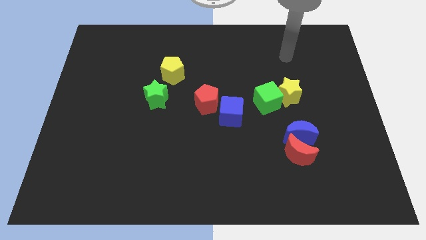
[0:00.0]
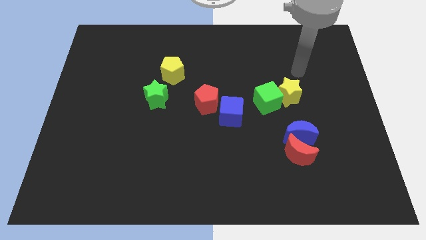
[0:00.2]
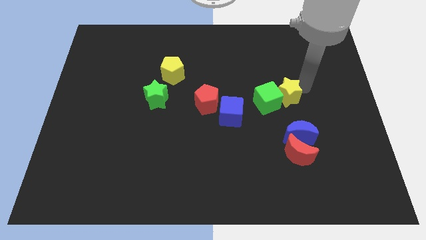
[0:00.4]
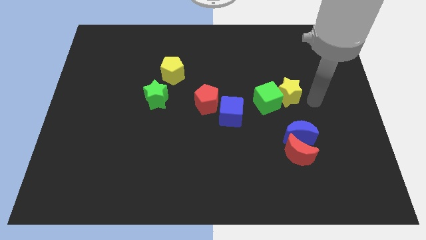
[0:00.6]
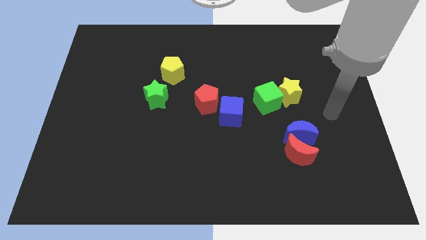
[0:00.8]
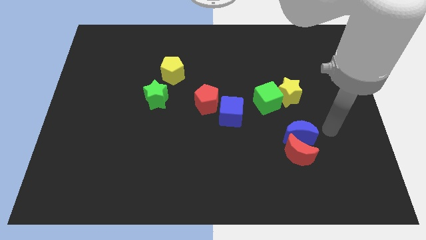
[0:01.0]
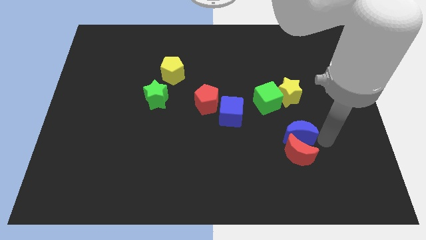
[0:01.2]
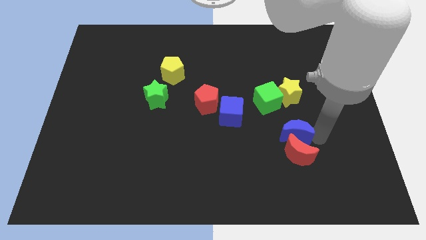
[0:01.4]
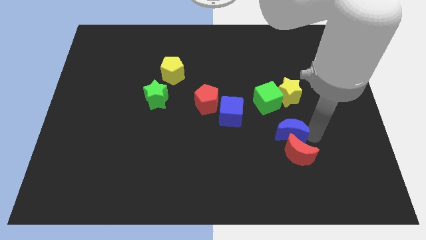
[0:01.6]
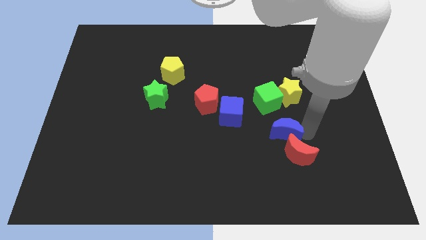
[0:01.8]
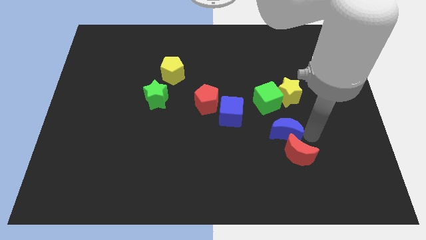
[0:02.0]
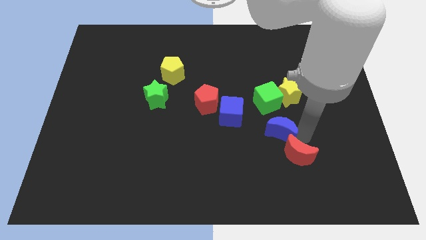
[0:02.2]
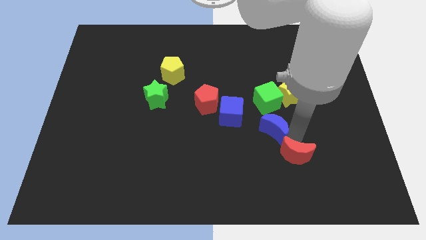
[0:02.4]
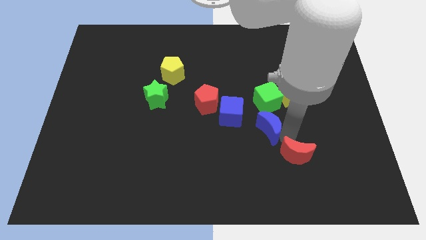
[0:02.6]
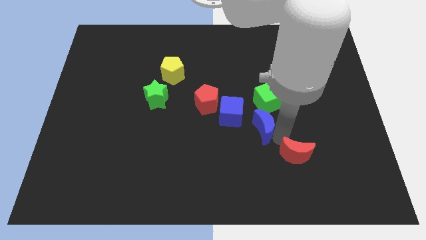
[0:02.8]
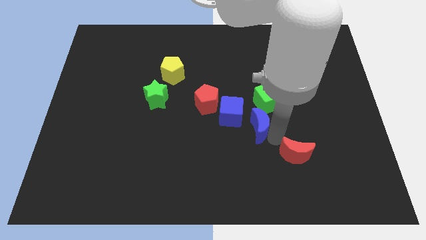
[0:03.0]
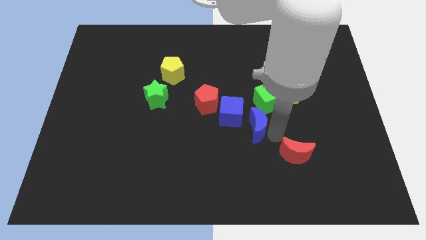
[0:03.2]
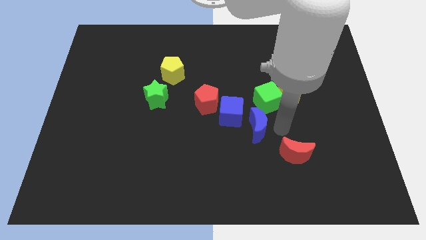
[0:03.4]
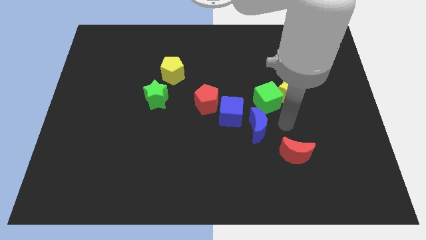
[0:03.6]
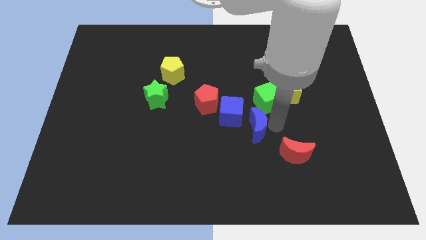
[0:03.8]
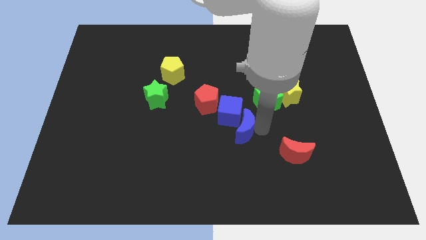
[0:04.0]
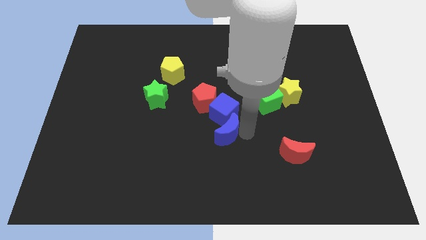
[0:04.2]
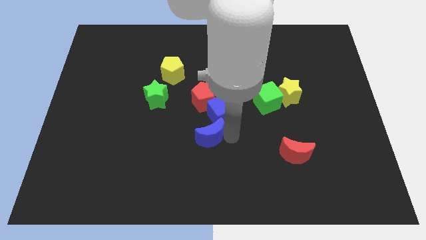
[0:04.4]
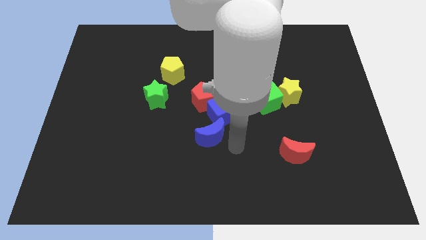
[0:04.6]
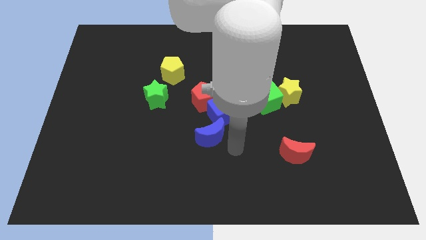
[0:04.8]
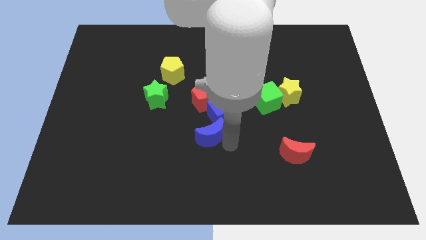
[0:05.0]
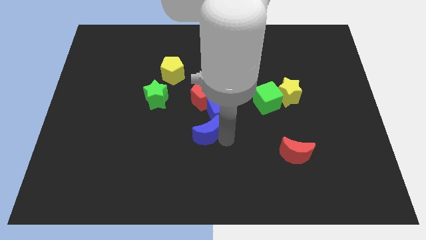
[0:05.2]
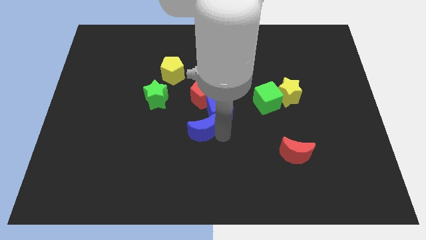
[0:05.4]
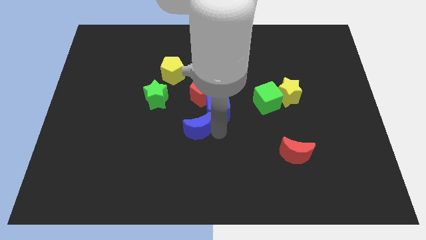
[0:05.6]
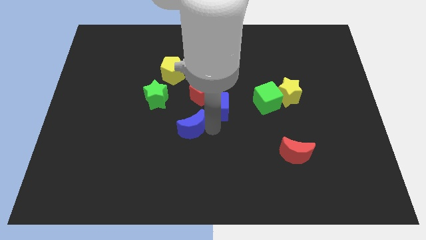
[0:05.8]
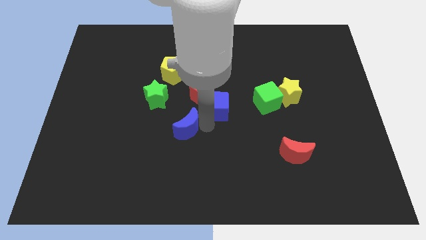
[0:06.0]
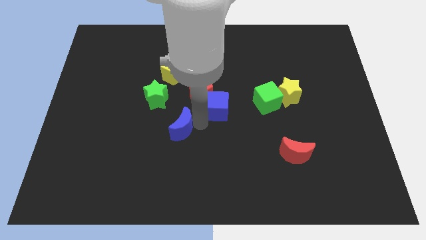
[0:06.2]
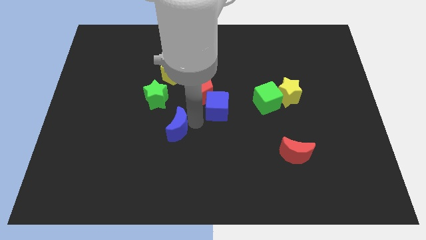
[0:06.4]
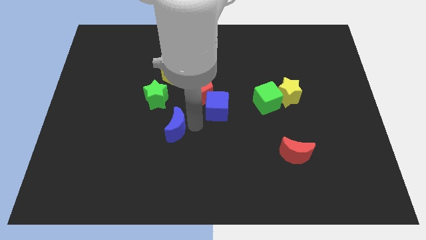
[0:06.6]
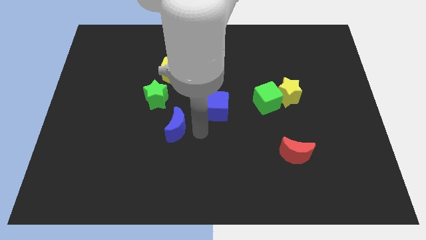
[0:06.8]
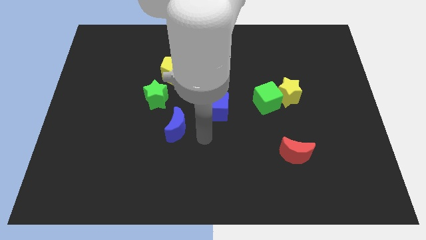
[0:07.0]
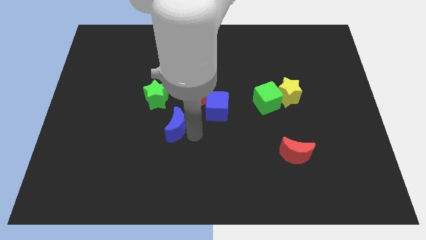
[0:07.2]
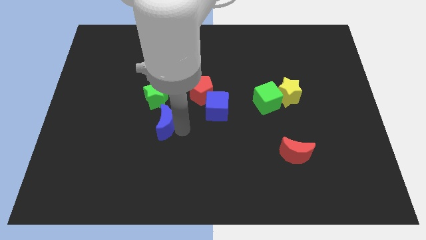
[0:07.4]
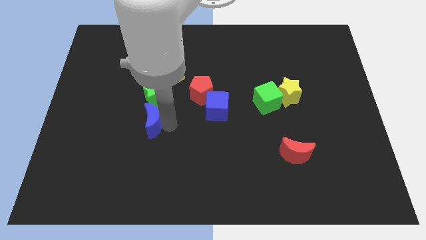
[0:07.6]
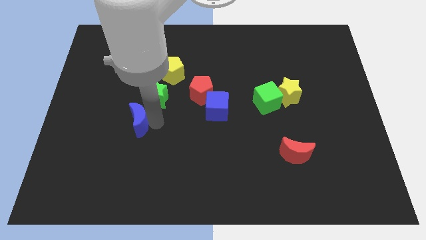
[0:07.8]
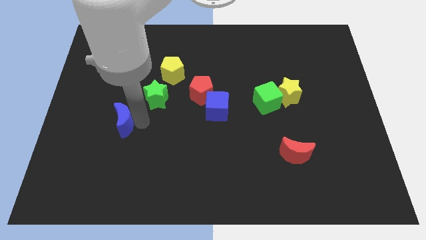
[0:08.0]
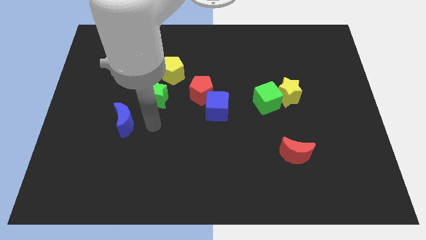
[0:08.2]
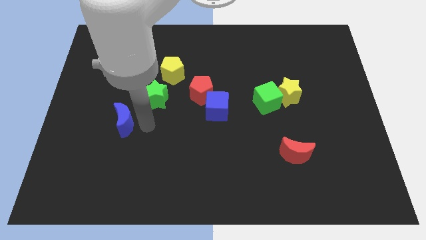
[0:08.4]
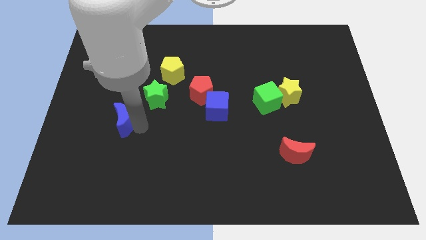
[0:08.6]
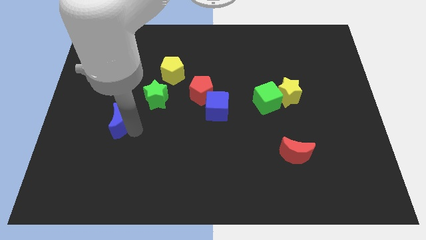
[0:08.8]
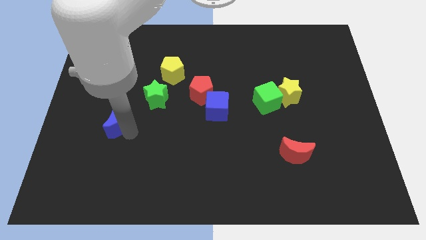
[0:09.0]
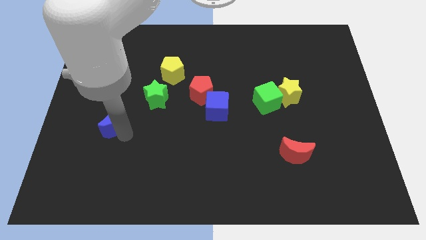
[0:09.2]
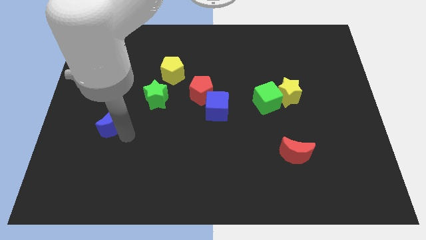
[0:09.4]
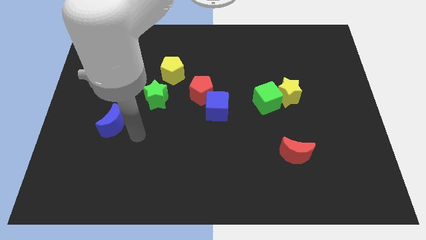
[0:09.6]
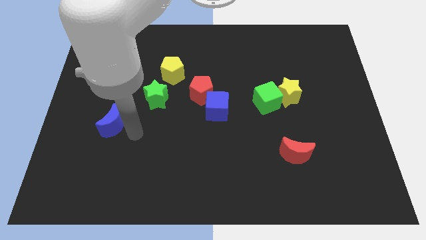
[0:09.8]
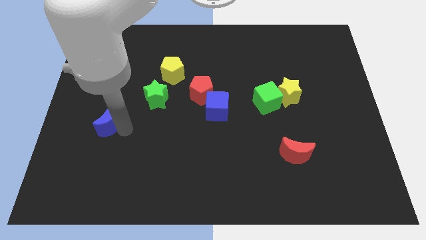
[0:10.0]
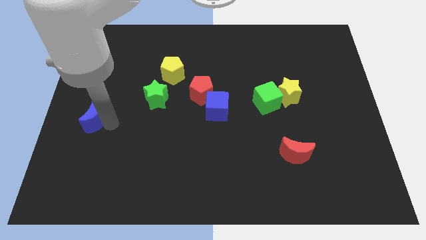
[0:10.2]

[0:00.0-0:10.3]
slide the blue moon to the left side of the board

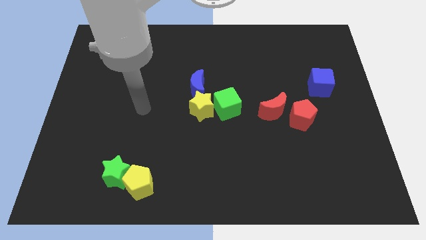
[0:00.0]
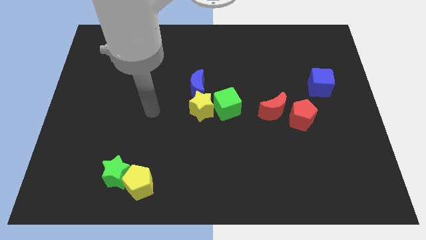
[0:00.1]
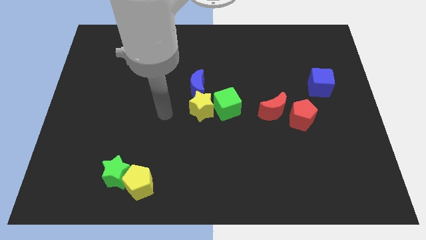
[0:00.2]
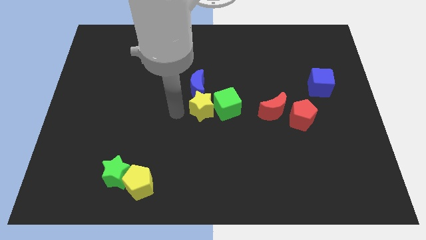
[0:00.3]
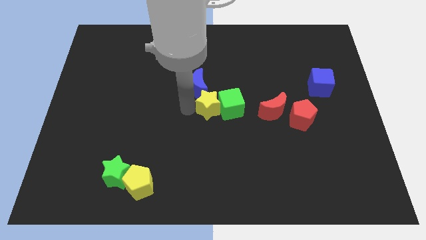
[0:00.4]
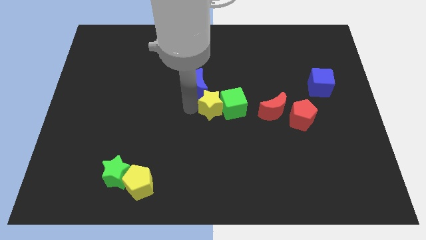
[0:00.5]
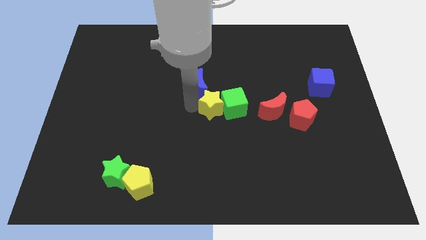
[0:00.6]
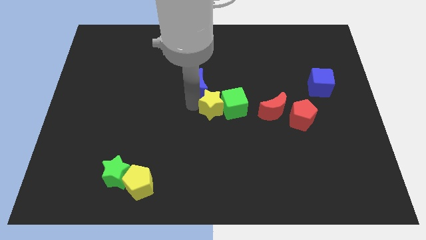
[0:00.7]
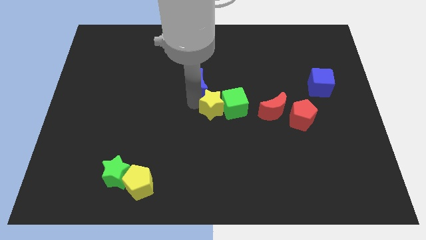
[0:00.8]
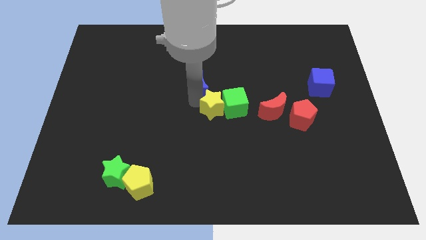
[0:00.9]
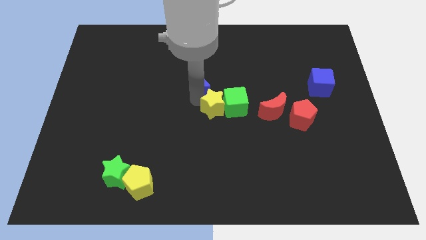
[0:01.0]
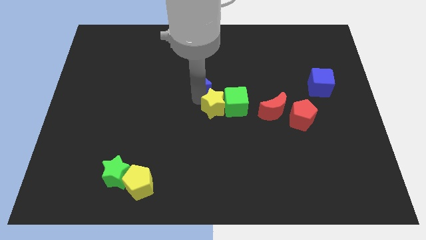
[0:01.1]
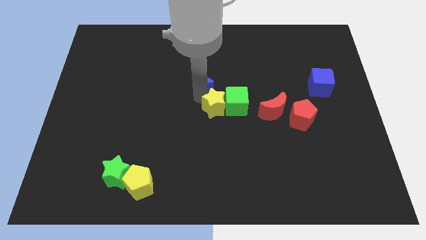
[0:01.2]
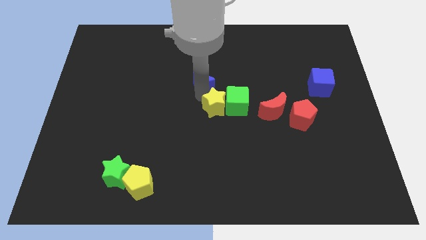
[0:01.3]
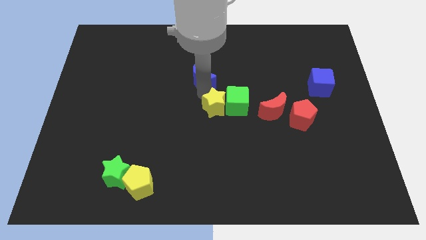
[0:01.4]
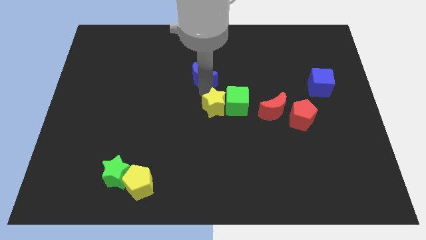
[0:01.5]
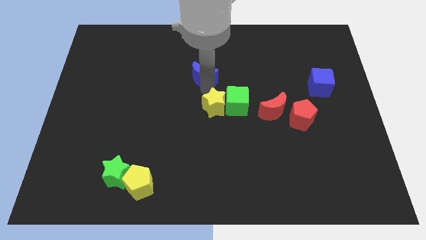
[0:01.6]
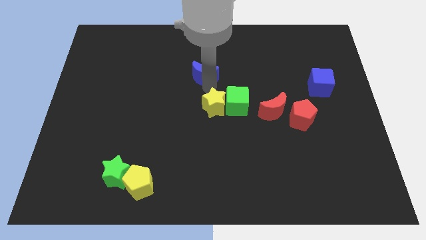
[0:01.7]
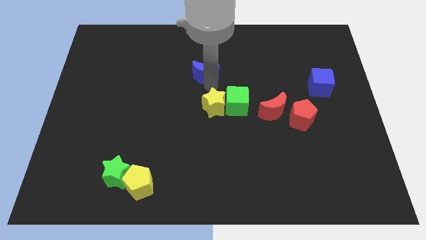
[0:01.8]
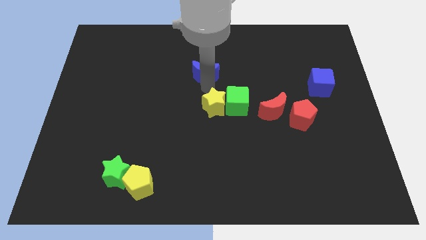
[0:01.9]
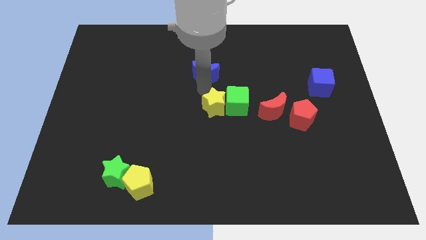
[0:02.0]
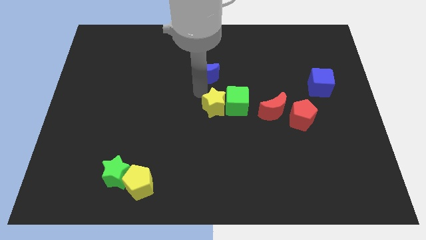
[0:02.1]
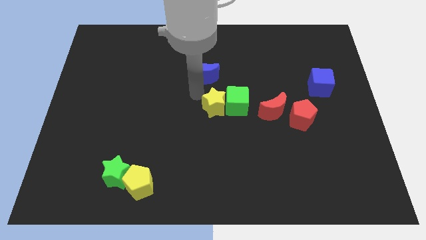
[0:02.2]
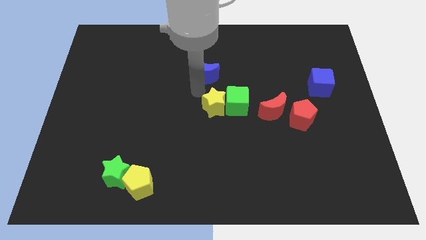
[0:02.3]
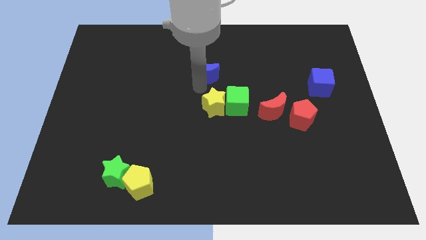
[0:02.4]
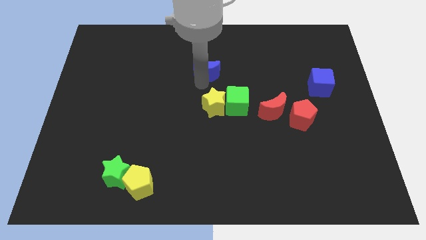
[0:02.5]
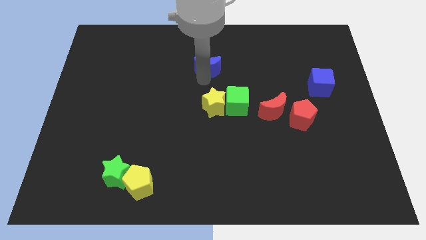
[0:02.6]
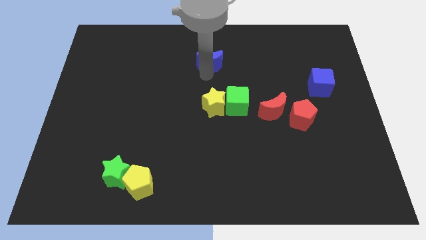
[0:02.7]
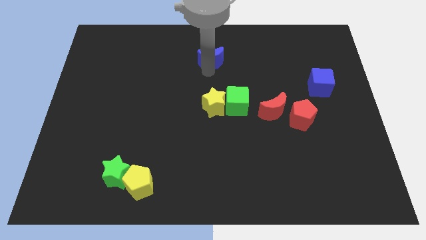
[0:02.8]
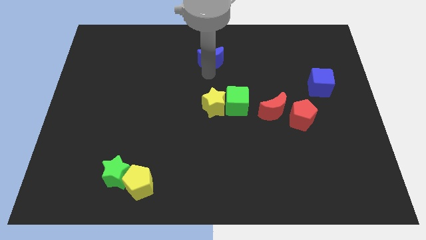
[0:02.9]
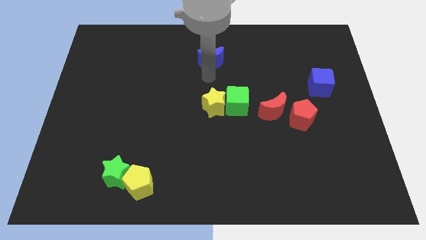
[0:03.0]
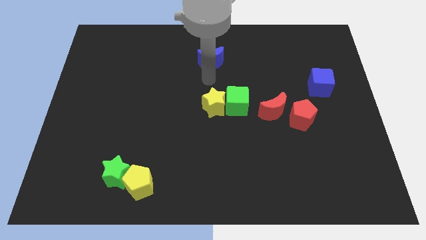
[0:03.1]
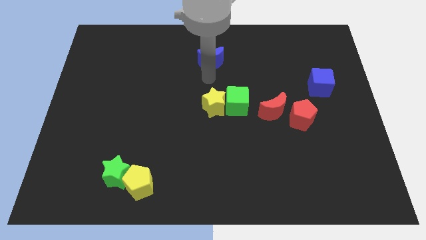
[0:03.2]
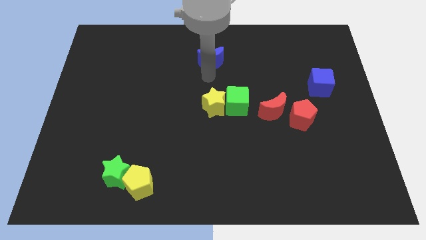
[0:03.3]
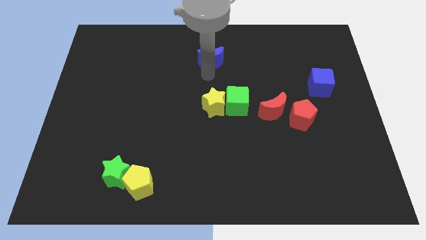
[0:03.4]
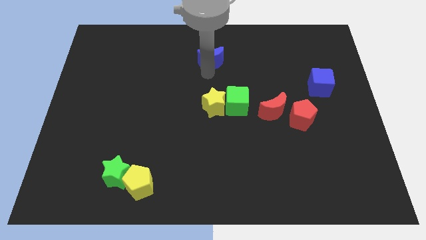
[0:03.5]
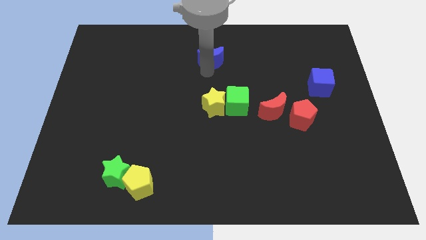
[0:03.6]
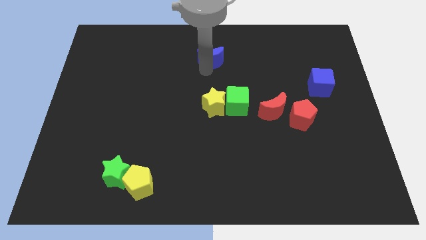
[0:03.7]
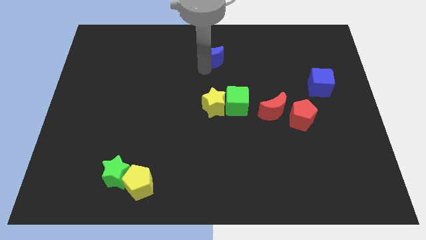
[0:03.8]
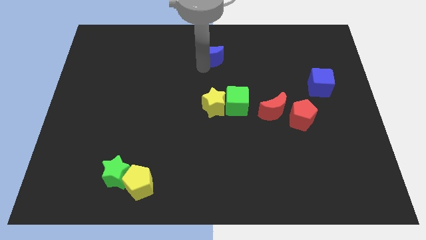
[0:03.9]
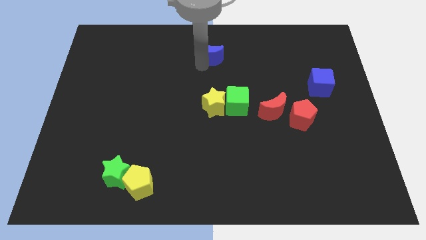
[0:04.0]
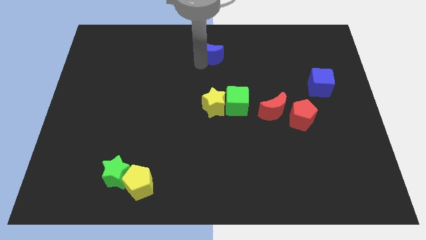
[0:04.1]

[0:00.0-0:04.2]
push the blue moon to the top
